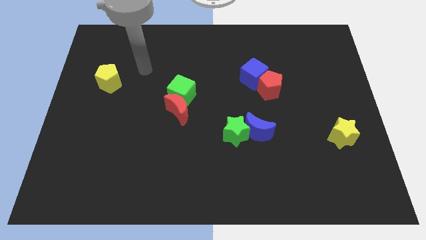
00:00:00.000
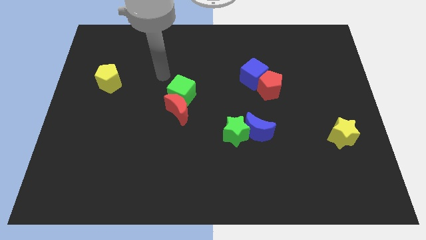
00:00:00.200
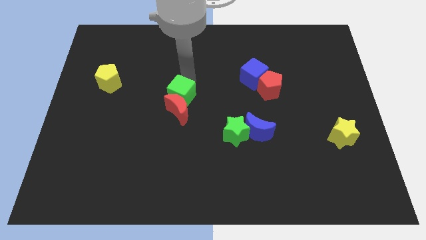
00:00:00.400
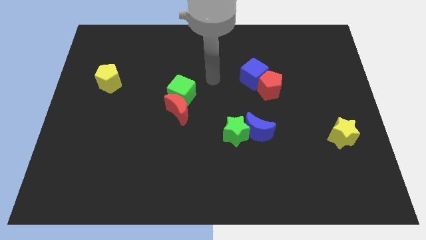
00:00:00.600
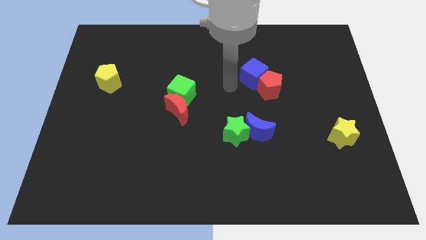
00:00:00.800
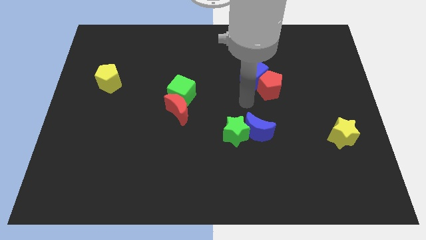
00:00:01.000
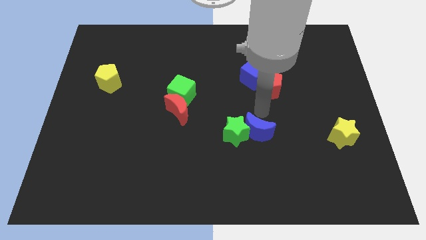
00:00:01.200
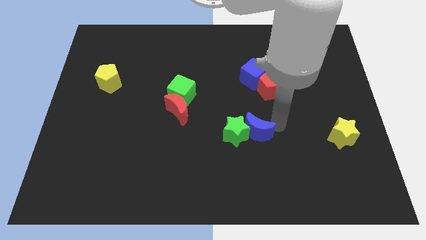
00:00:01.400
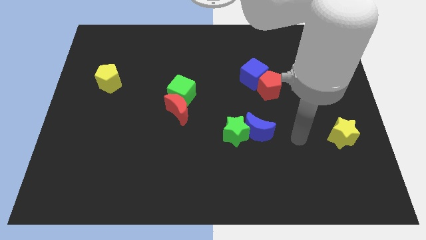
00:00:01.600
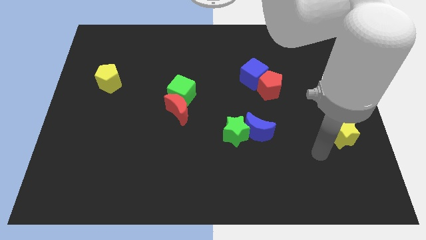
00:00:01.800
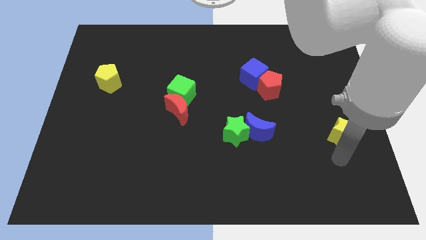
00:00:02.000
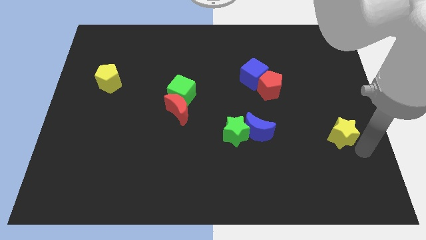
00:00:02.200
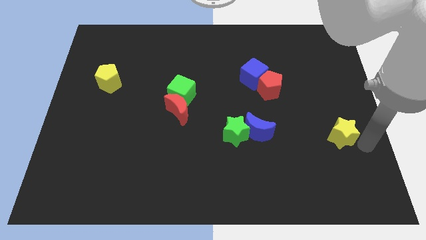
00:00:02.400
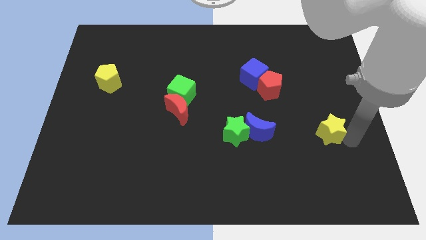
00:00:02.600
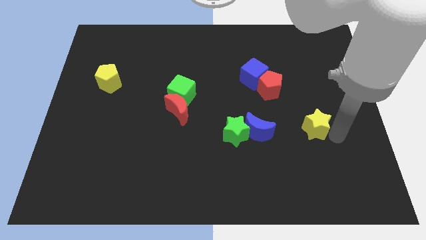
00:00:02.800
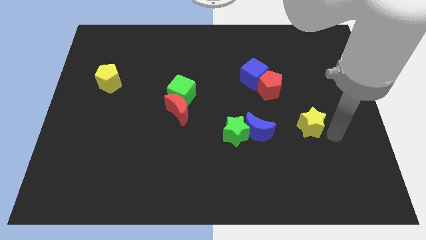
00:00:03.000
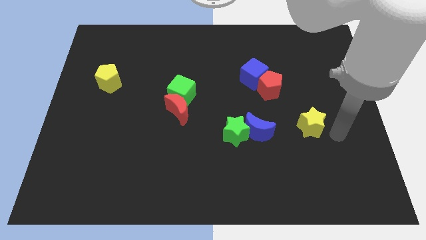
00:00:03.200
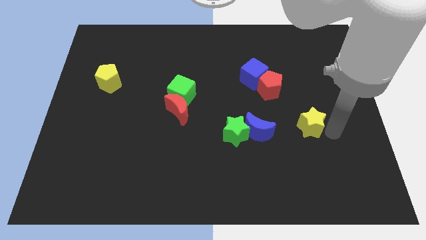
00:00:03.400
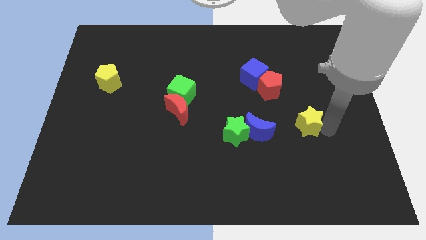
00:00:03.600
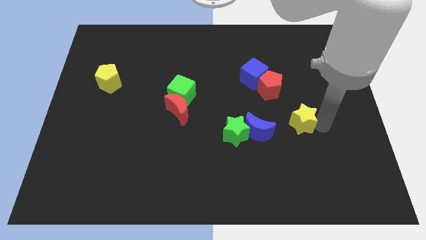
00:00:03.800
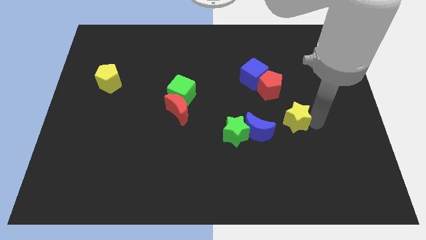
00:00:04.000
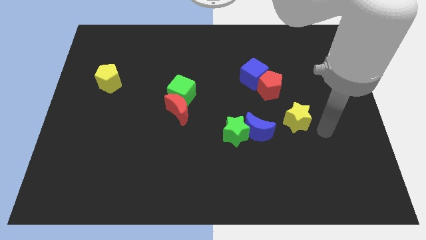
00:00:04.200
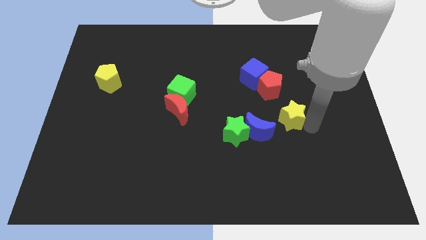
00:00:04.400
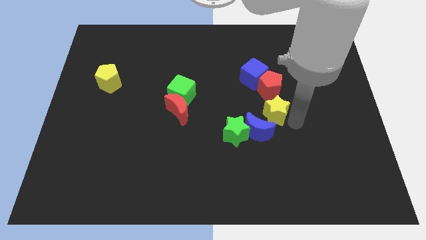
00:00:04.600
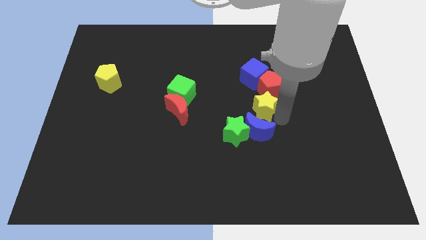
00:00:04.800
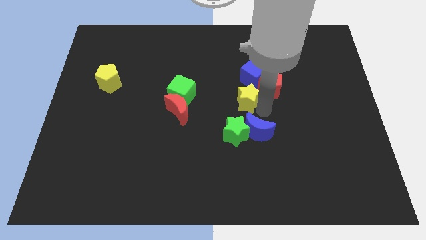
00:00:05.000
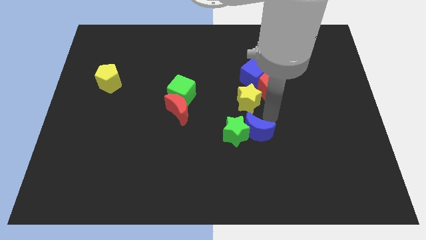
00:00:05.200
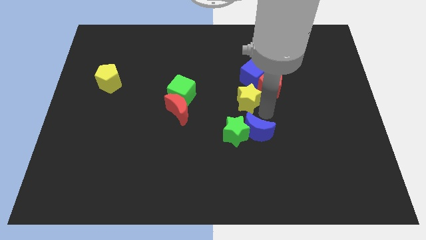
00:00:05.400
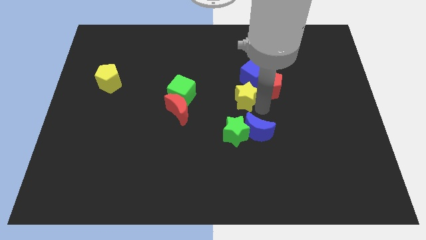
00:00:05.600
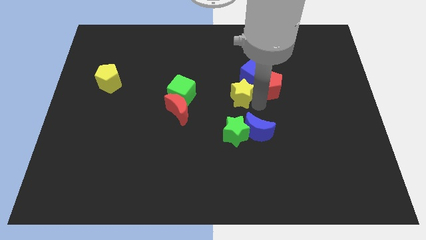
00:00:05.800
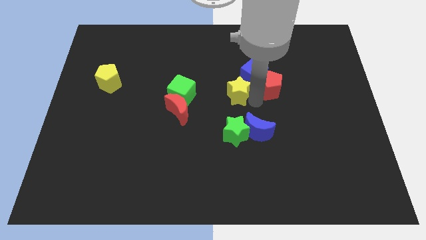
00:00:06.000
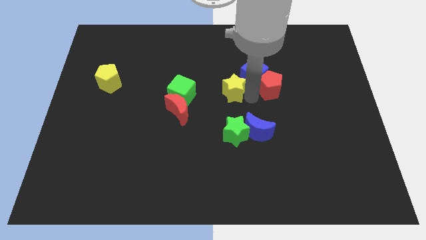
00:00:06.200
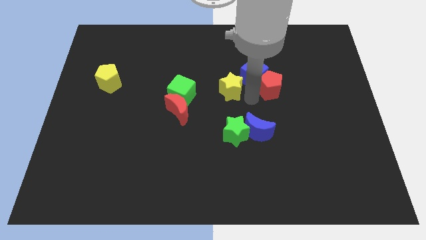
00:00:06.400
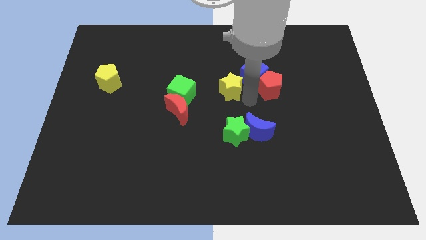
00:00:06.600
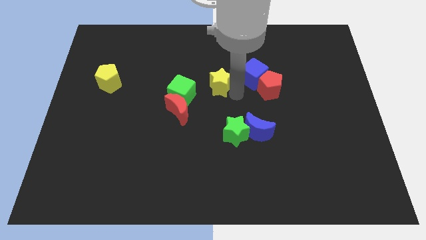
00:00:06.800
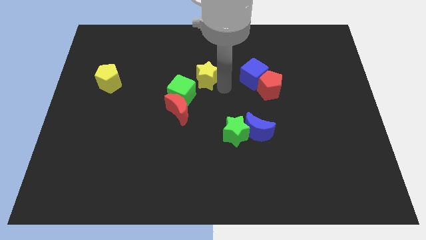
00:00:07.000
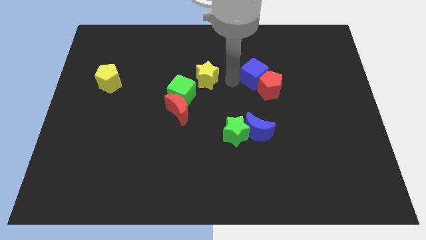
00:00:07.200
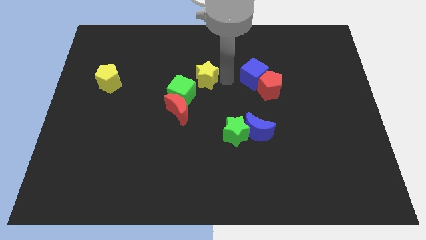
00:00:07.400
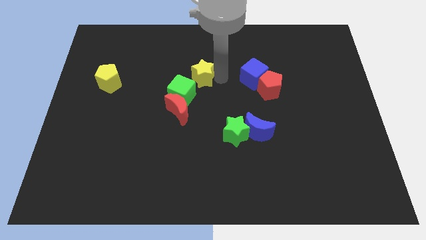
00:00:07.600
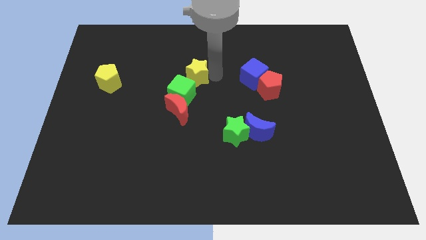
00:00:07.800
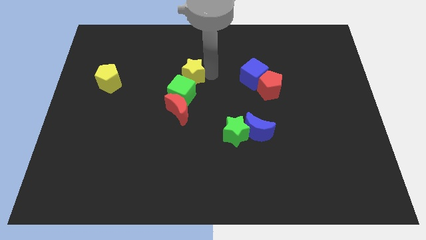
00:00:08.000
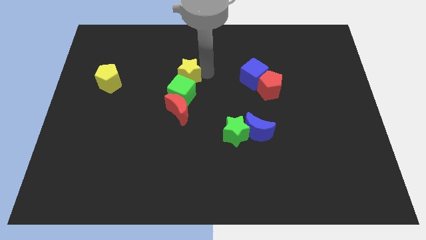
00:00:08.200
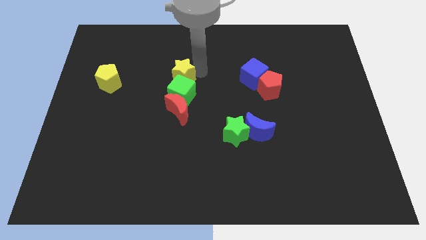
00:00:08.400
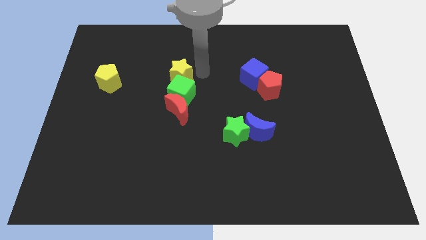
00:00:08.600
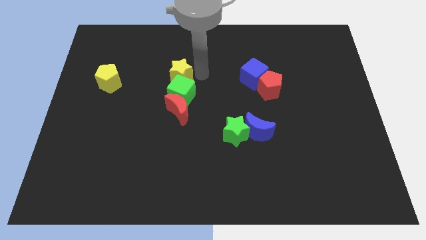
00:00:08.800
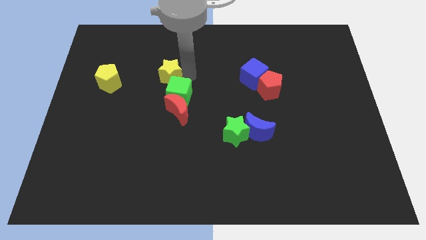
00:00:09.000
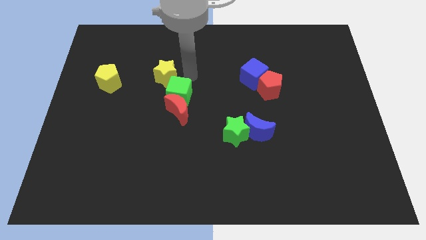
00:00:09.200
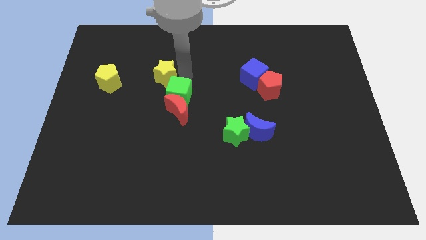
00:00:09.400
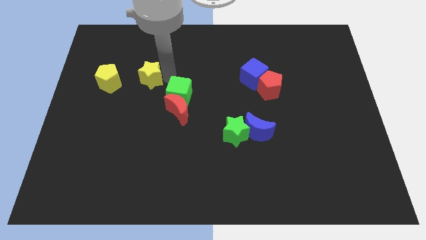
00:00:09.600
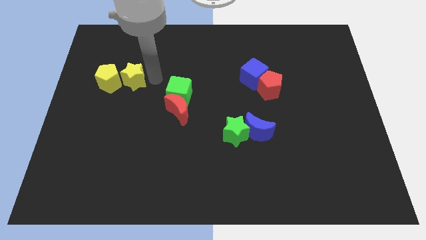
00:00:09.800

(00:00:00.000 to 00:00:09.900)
move the yellow star close to the yellow pentagon

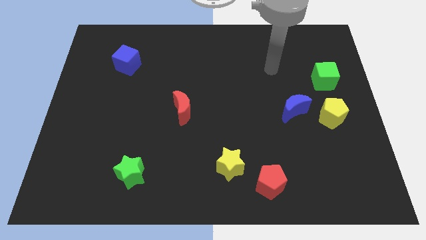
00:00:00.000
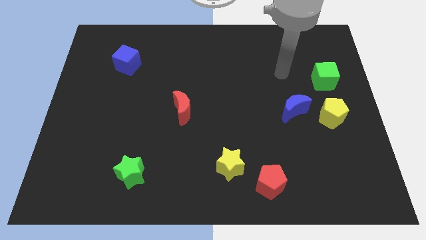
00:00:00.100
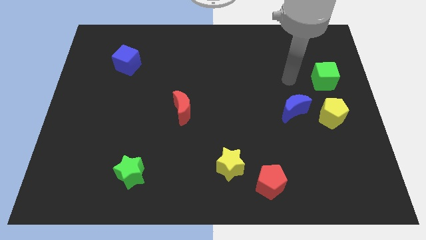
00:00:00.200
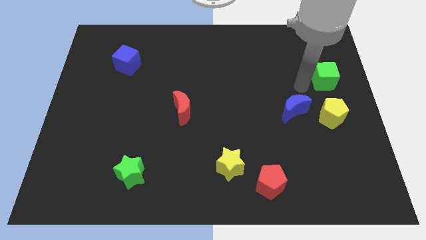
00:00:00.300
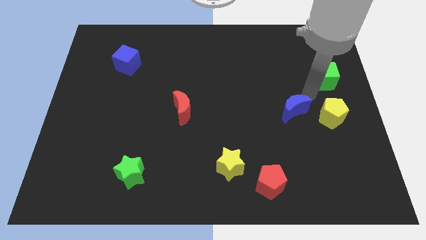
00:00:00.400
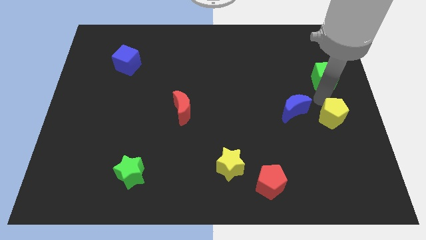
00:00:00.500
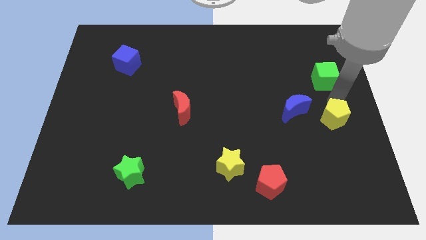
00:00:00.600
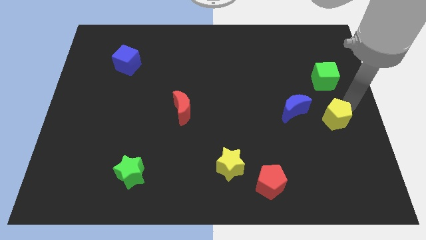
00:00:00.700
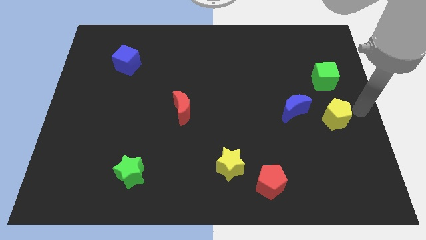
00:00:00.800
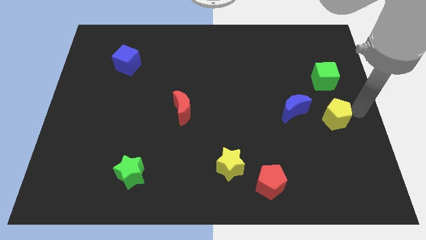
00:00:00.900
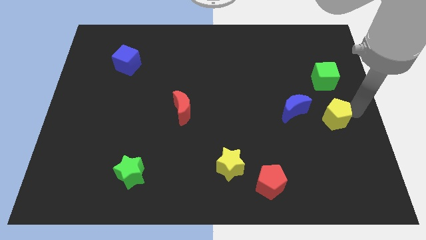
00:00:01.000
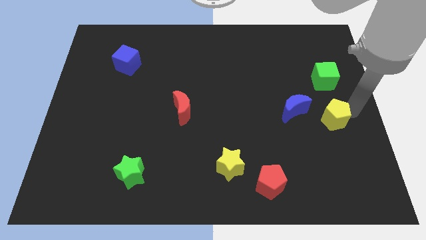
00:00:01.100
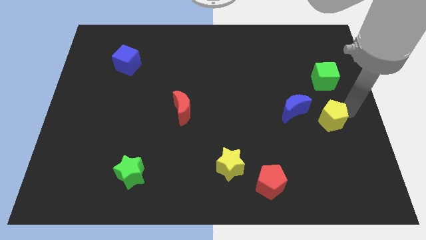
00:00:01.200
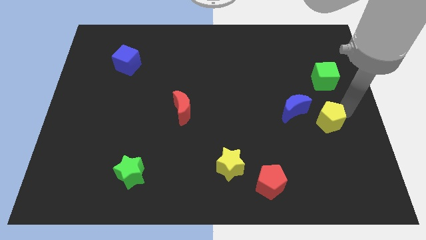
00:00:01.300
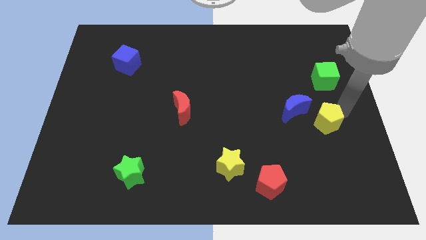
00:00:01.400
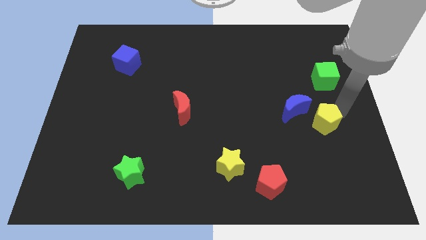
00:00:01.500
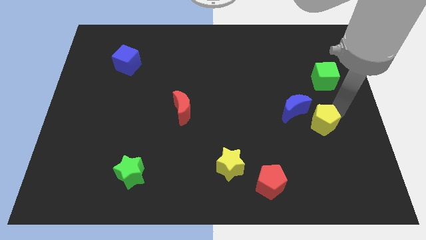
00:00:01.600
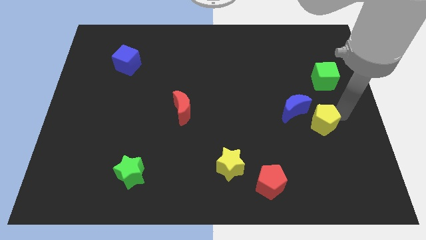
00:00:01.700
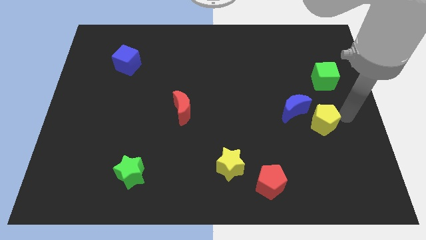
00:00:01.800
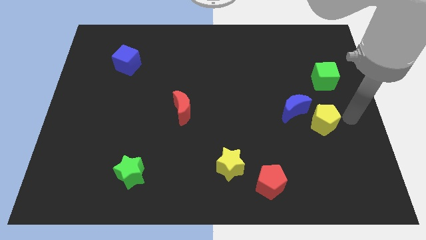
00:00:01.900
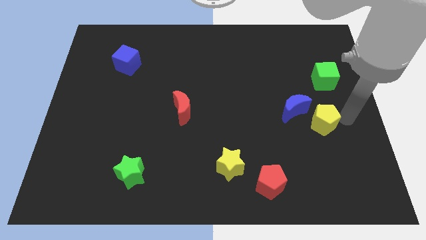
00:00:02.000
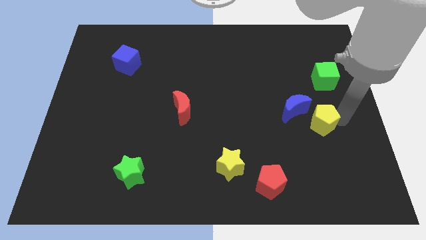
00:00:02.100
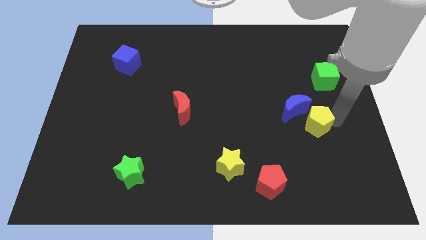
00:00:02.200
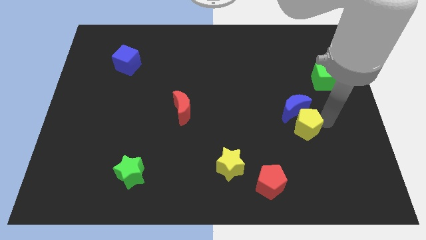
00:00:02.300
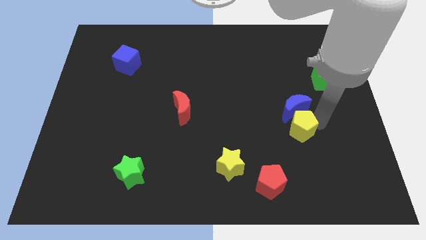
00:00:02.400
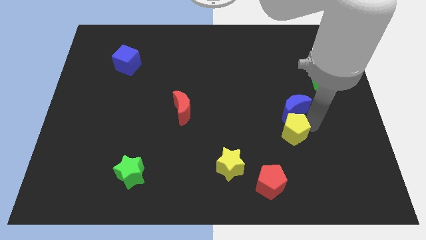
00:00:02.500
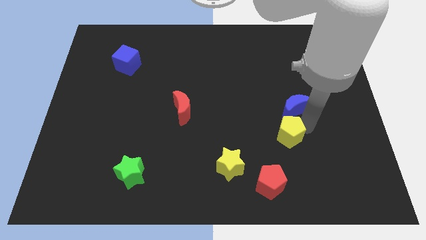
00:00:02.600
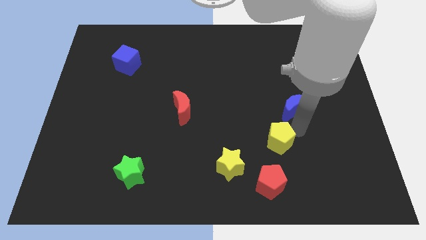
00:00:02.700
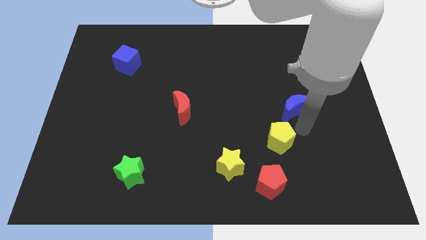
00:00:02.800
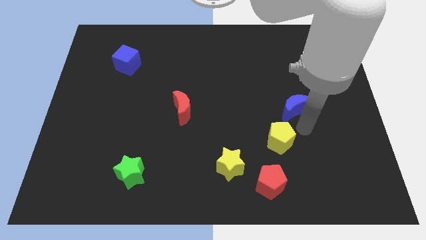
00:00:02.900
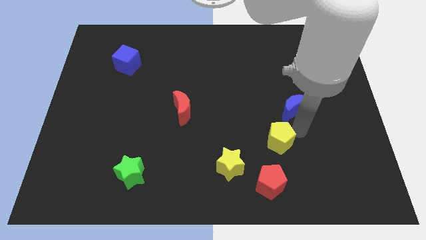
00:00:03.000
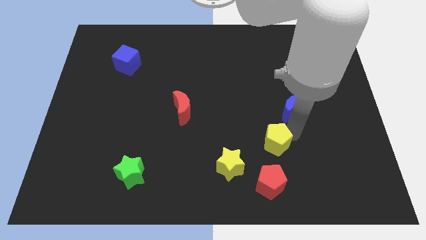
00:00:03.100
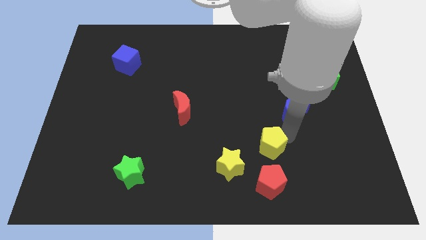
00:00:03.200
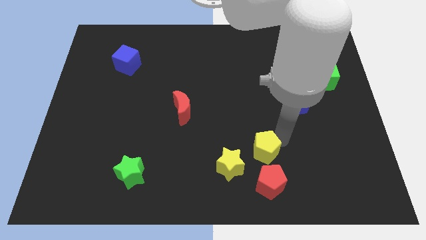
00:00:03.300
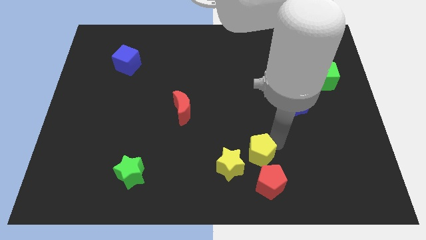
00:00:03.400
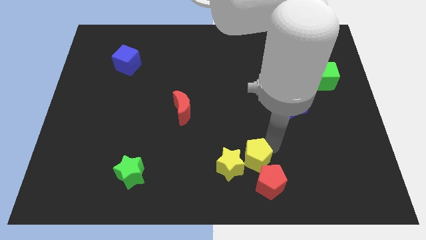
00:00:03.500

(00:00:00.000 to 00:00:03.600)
put the yellow pentagon towards the yellow star
